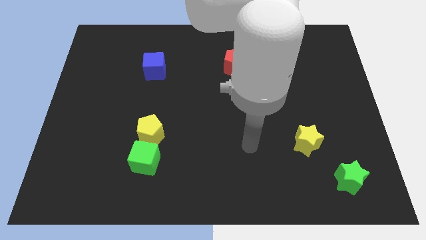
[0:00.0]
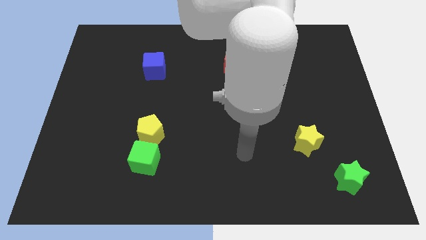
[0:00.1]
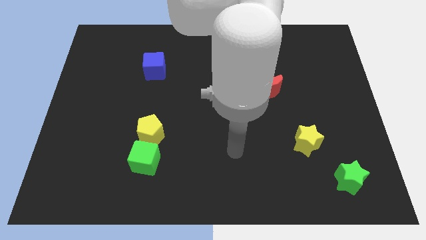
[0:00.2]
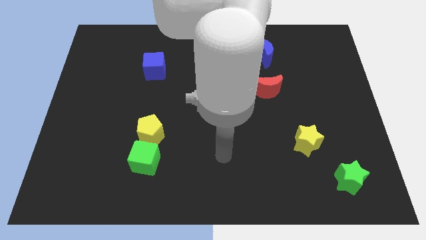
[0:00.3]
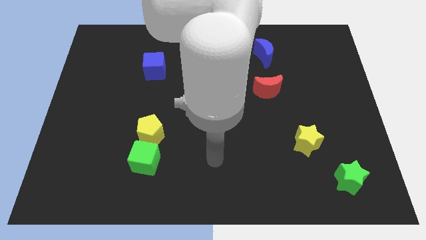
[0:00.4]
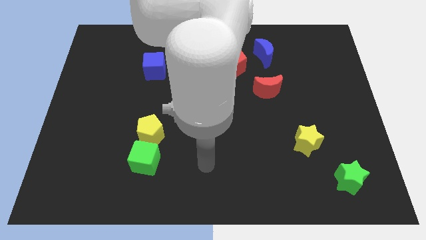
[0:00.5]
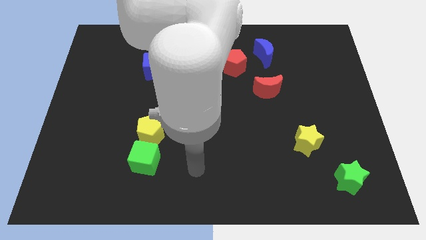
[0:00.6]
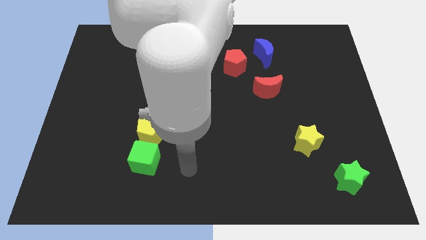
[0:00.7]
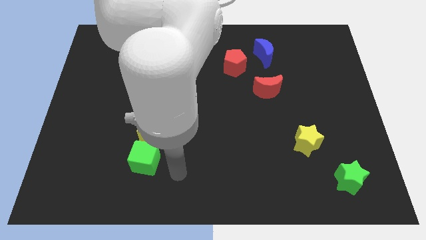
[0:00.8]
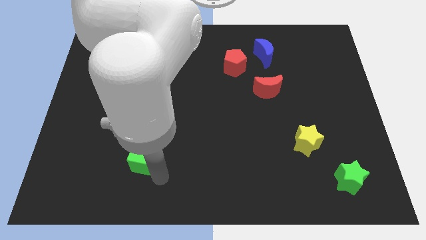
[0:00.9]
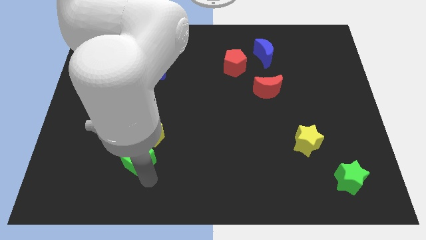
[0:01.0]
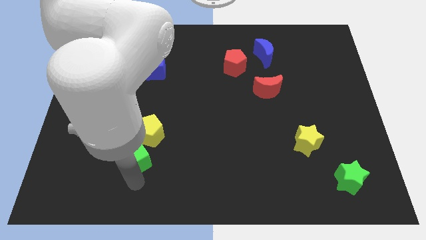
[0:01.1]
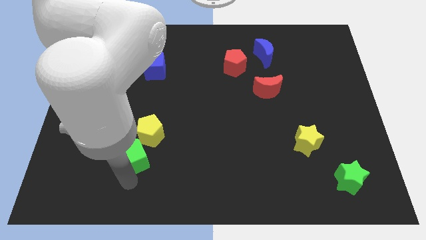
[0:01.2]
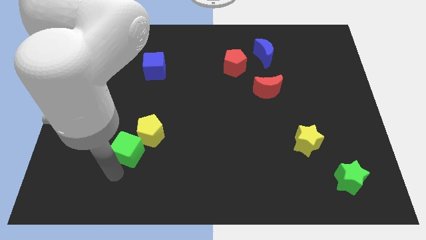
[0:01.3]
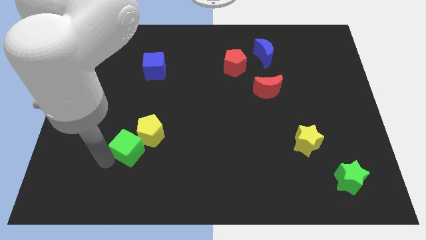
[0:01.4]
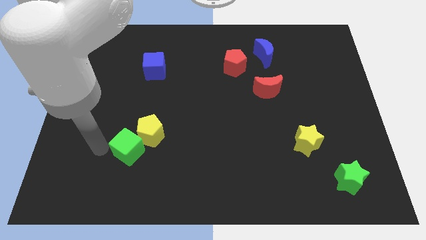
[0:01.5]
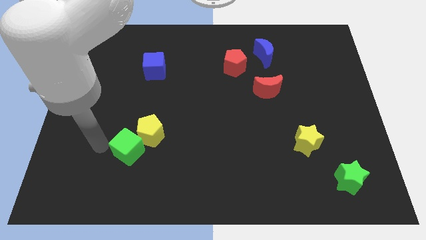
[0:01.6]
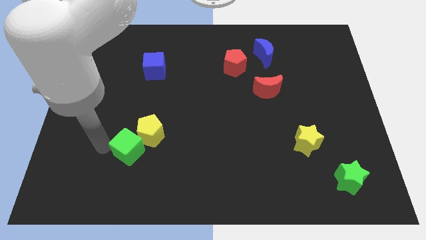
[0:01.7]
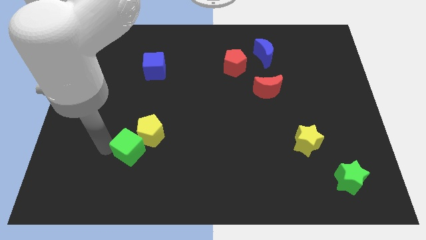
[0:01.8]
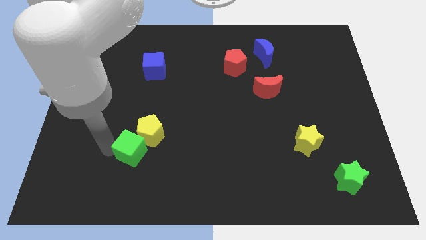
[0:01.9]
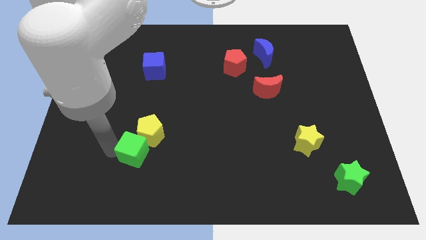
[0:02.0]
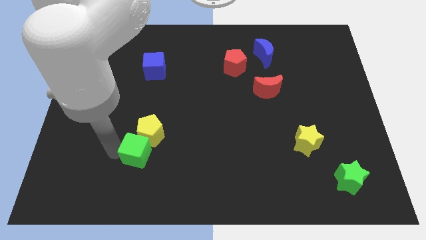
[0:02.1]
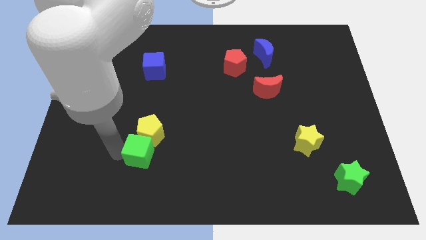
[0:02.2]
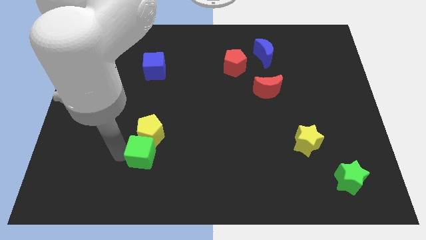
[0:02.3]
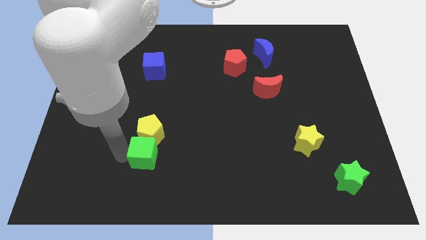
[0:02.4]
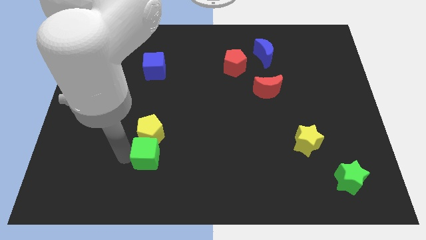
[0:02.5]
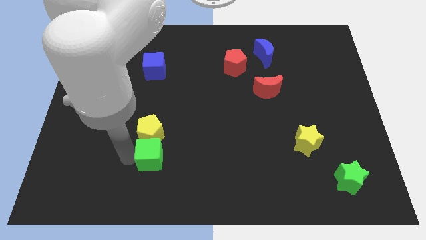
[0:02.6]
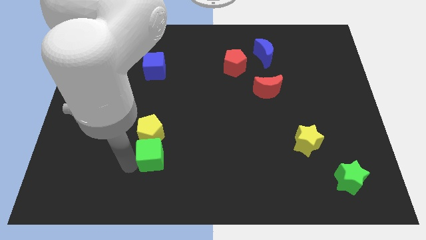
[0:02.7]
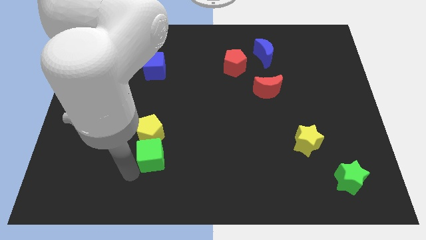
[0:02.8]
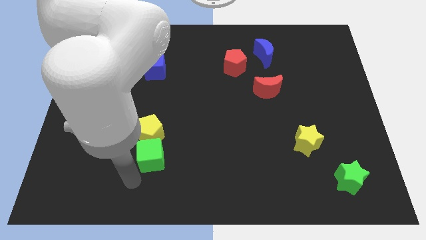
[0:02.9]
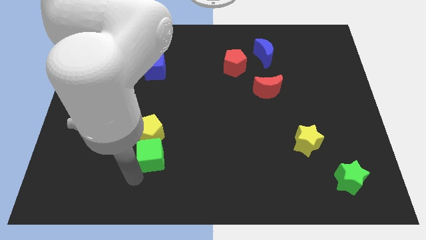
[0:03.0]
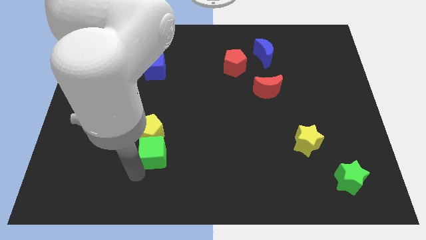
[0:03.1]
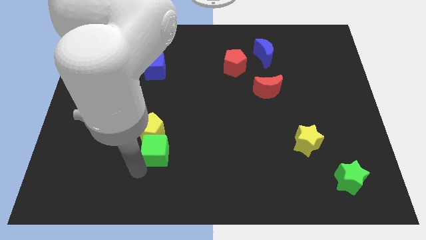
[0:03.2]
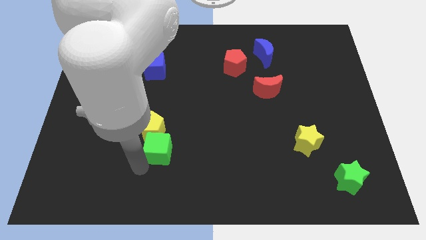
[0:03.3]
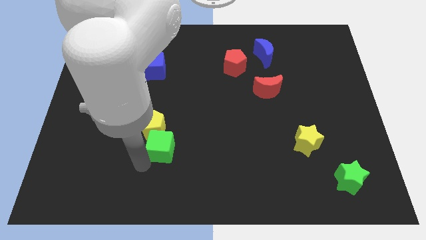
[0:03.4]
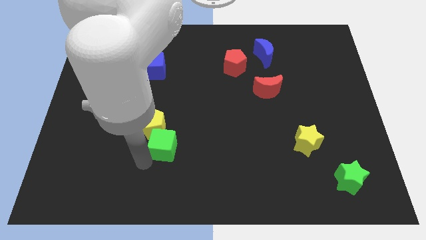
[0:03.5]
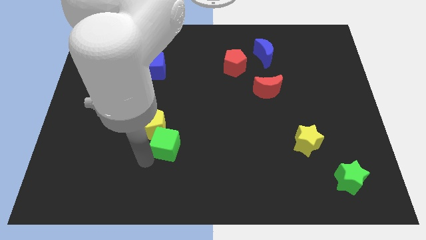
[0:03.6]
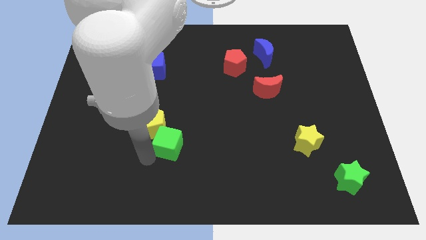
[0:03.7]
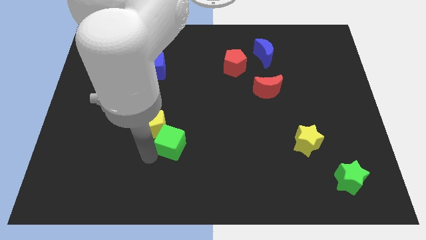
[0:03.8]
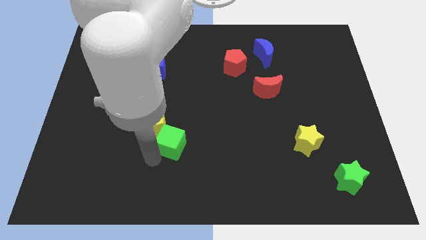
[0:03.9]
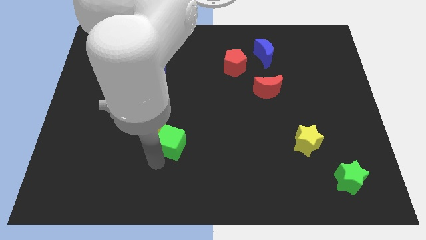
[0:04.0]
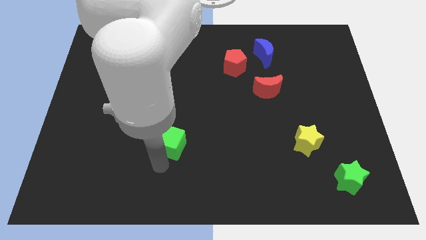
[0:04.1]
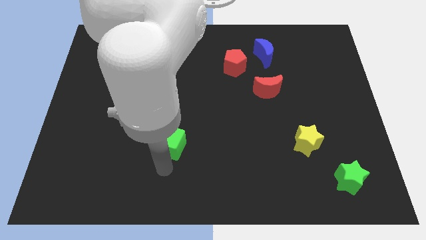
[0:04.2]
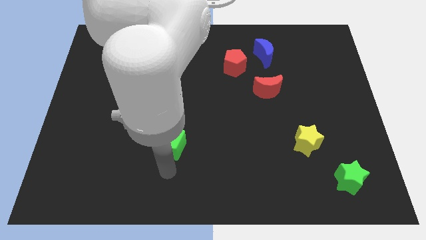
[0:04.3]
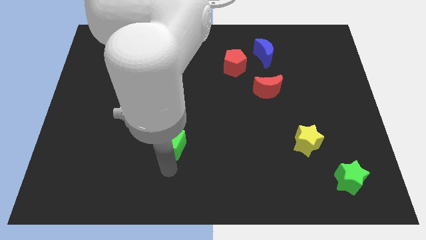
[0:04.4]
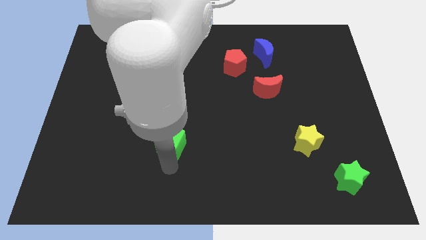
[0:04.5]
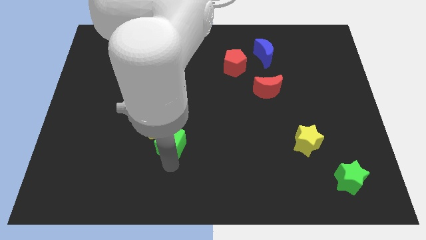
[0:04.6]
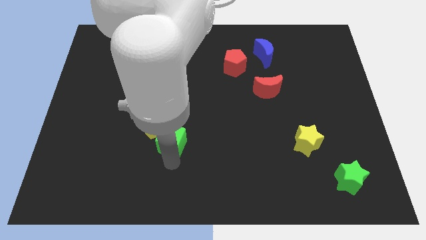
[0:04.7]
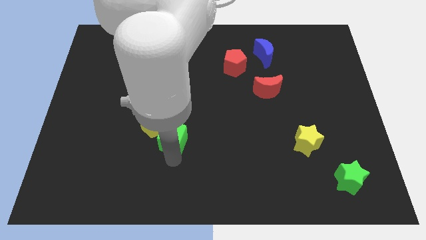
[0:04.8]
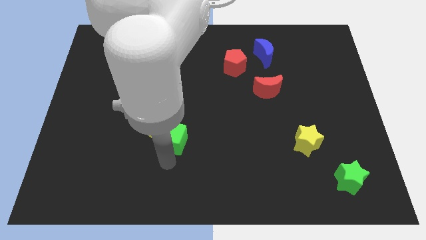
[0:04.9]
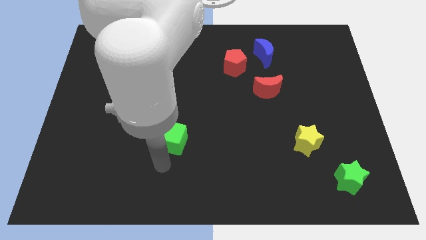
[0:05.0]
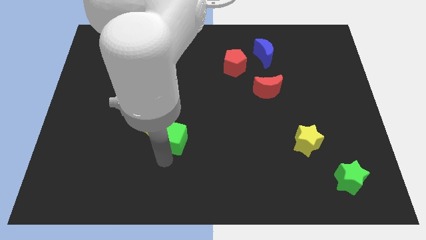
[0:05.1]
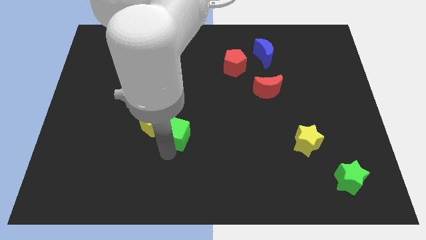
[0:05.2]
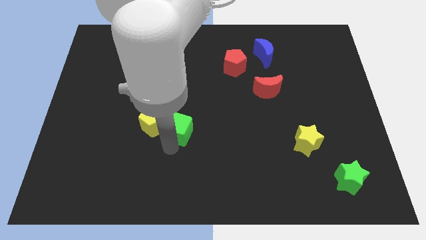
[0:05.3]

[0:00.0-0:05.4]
move the green cube to the middle of the board
